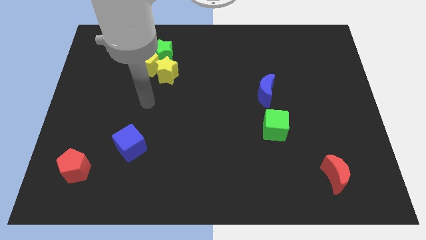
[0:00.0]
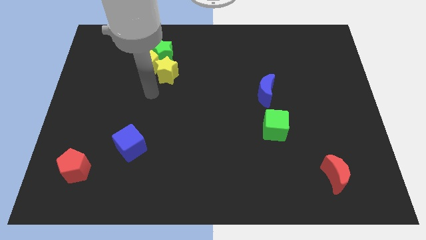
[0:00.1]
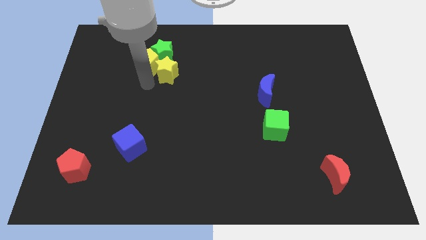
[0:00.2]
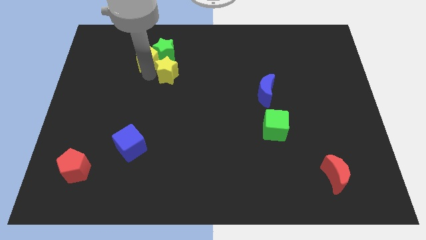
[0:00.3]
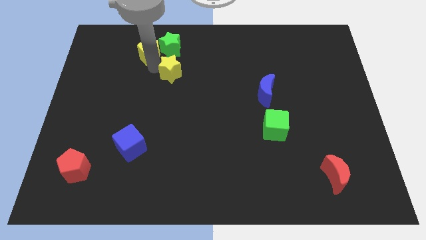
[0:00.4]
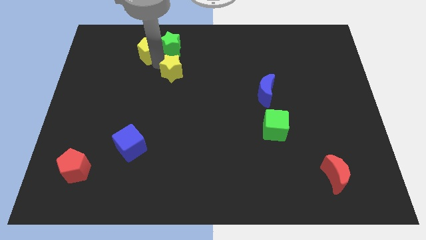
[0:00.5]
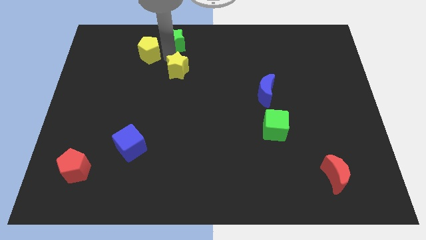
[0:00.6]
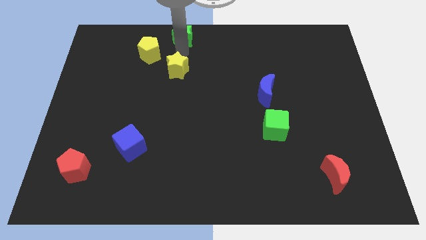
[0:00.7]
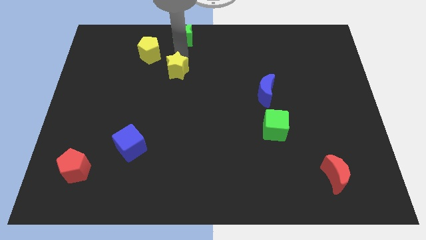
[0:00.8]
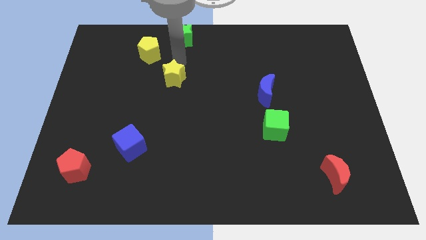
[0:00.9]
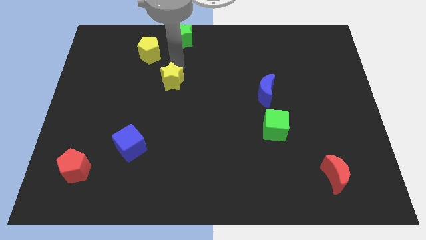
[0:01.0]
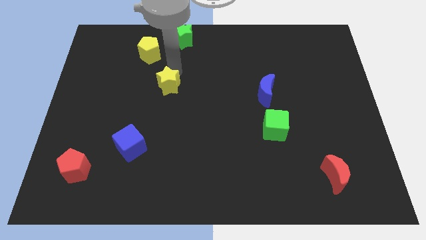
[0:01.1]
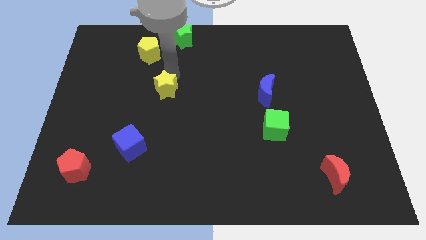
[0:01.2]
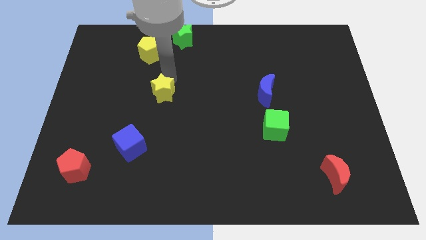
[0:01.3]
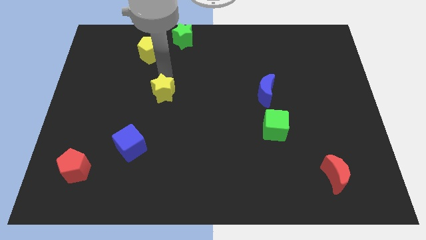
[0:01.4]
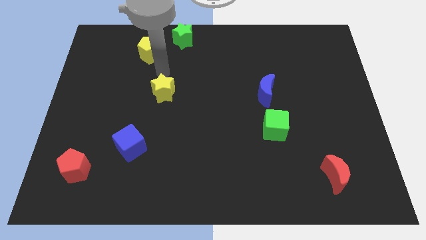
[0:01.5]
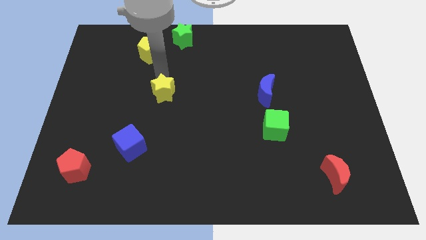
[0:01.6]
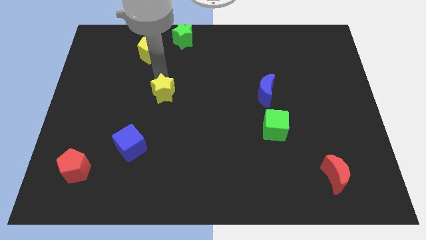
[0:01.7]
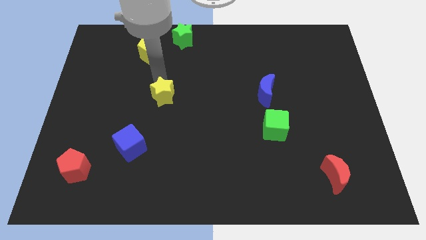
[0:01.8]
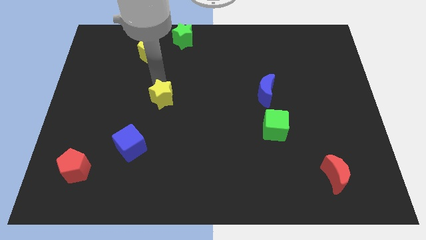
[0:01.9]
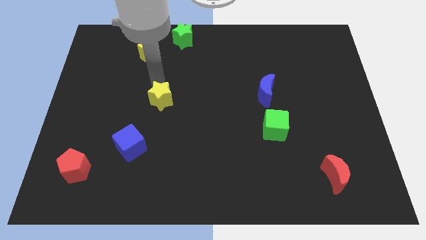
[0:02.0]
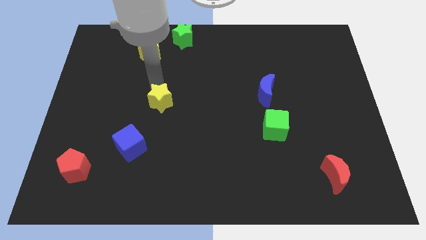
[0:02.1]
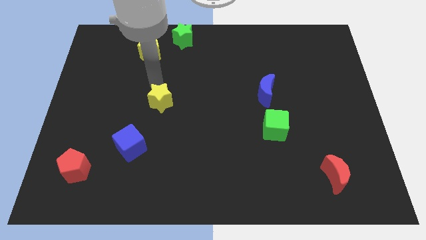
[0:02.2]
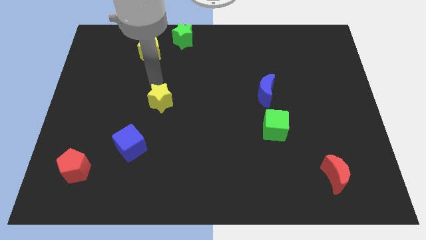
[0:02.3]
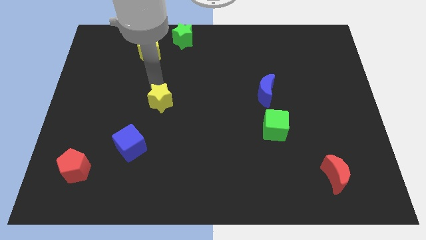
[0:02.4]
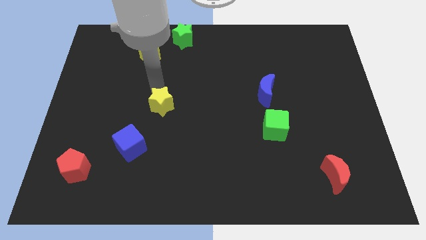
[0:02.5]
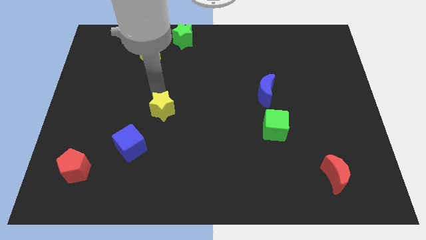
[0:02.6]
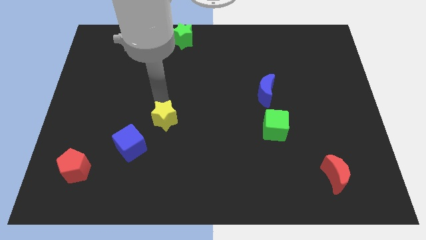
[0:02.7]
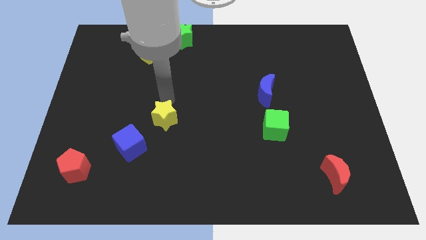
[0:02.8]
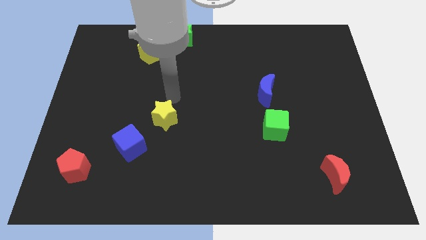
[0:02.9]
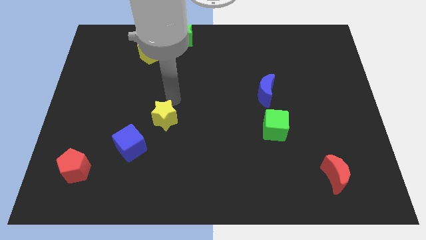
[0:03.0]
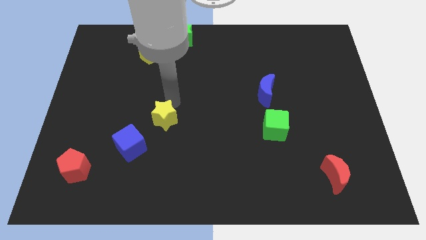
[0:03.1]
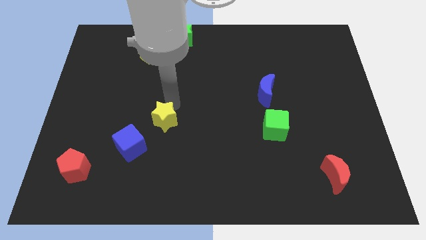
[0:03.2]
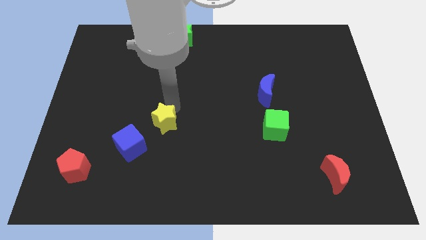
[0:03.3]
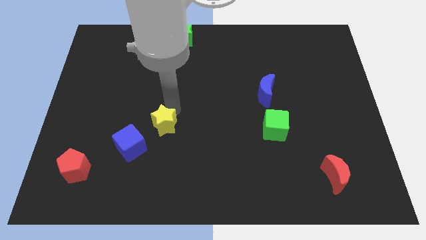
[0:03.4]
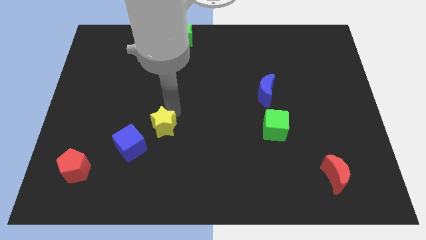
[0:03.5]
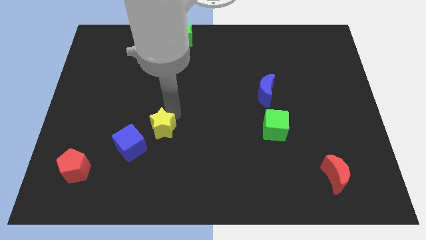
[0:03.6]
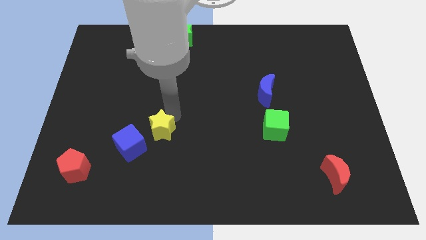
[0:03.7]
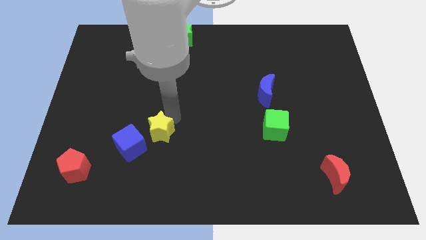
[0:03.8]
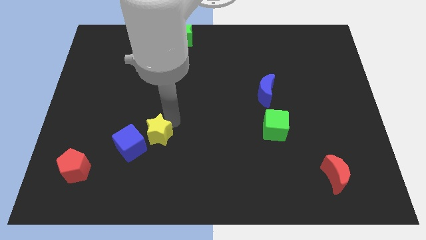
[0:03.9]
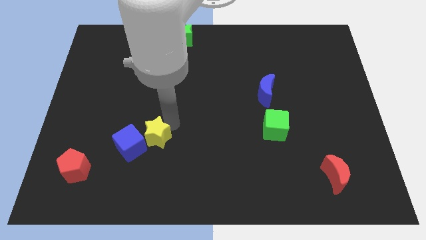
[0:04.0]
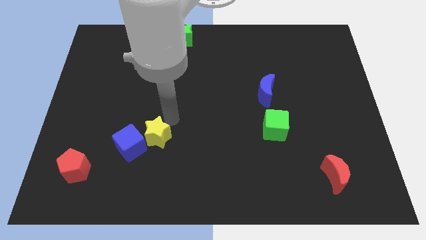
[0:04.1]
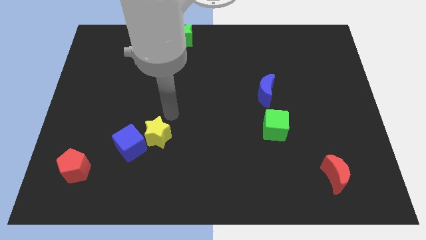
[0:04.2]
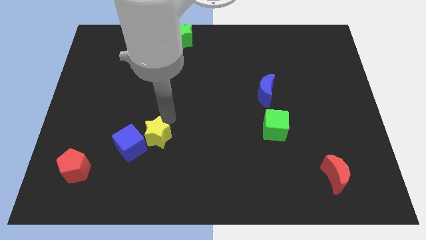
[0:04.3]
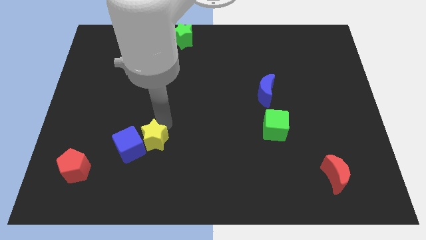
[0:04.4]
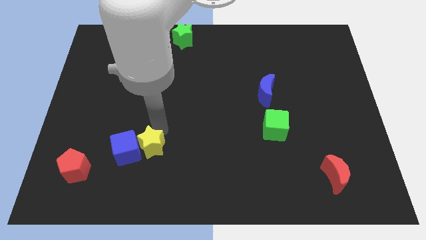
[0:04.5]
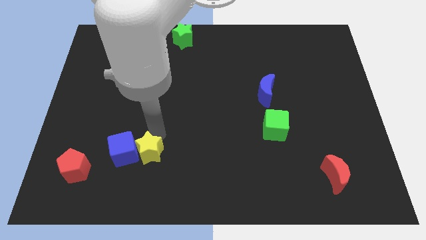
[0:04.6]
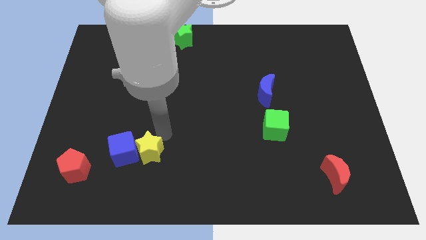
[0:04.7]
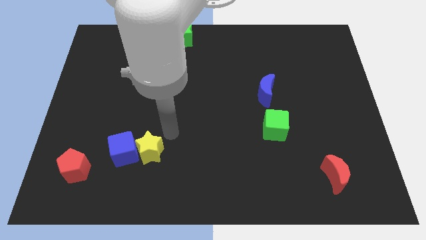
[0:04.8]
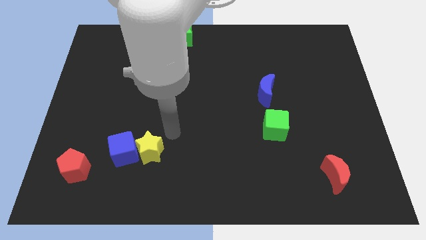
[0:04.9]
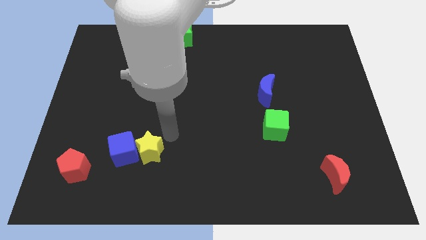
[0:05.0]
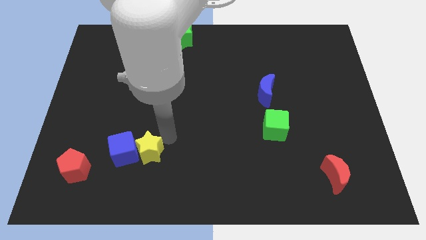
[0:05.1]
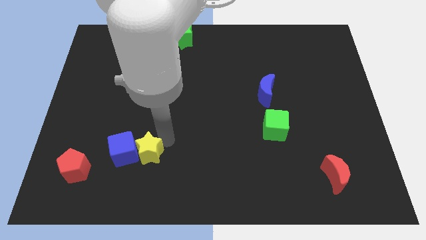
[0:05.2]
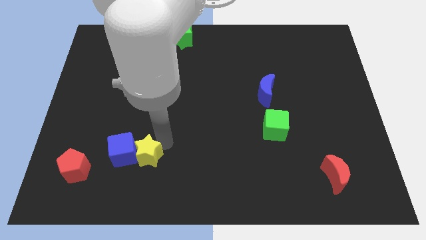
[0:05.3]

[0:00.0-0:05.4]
put the yellow star right of the red pentagon

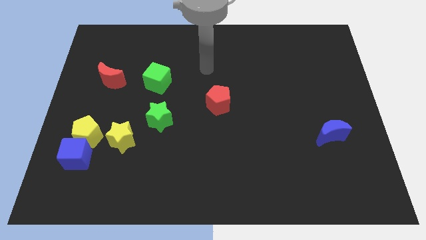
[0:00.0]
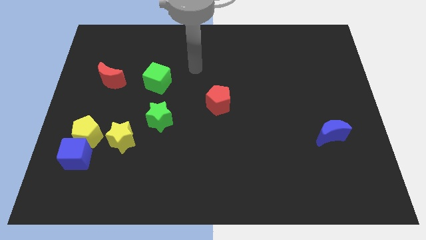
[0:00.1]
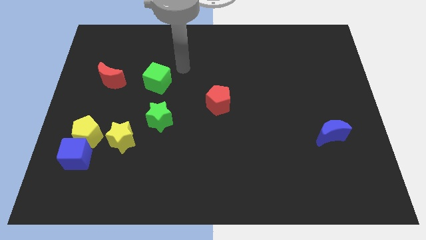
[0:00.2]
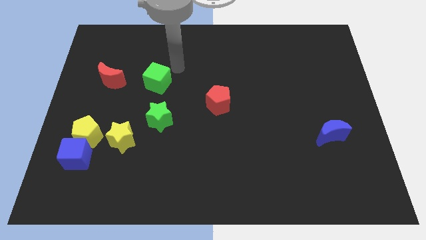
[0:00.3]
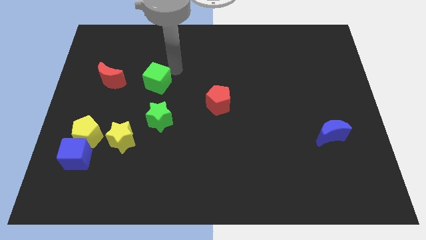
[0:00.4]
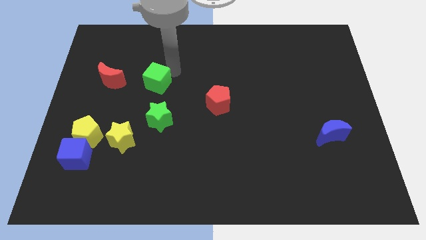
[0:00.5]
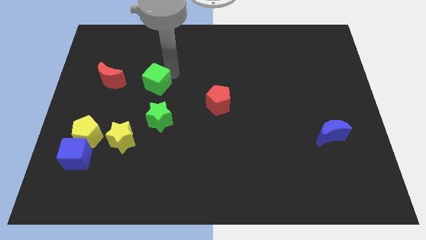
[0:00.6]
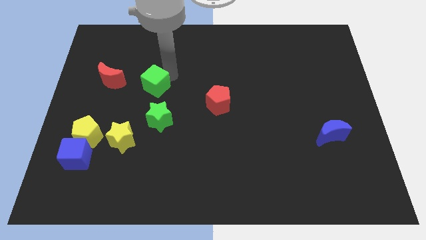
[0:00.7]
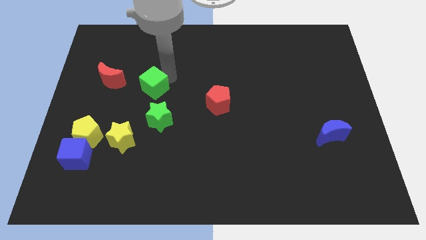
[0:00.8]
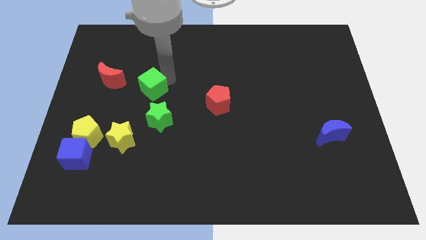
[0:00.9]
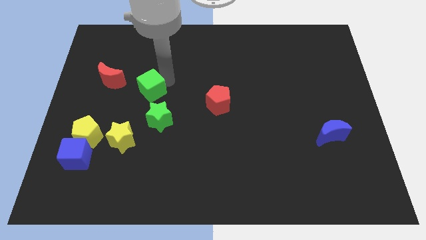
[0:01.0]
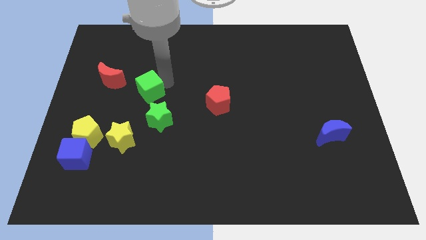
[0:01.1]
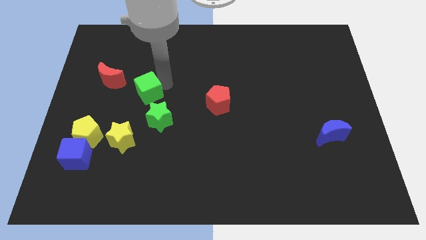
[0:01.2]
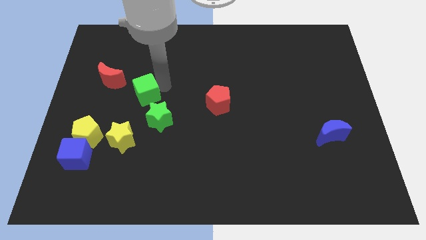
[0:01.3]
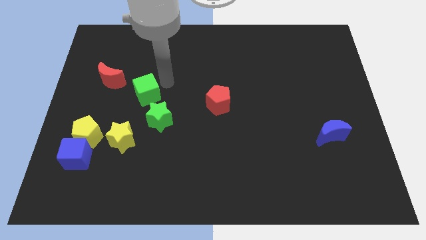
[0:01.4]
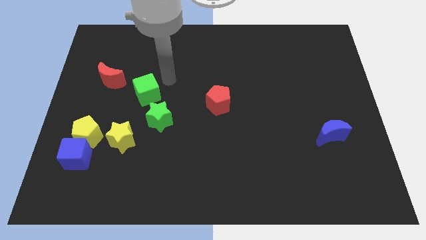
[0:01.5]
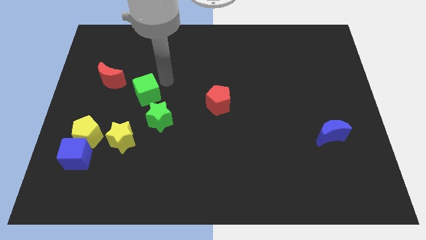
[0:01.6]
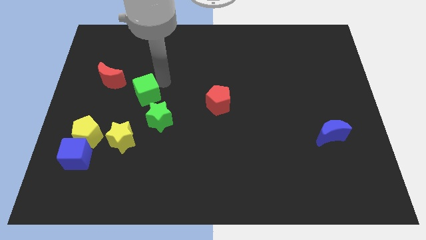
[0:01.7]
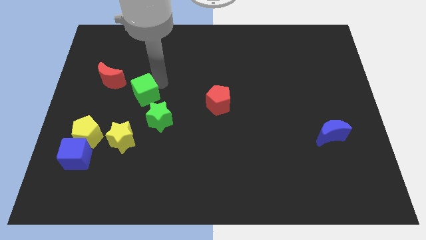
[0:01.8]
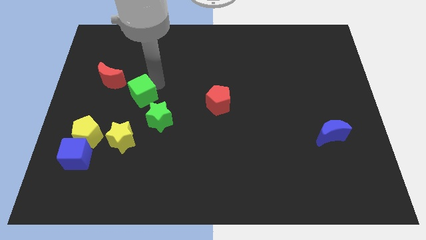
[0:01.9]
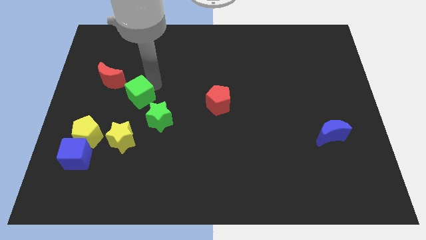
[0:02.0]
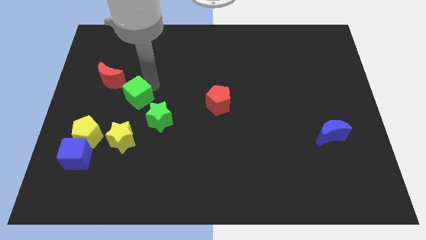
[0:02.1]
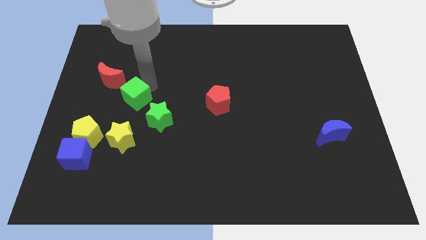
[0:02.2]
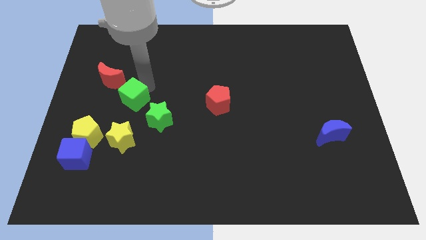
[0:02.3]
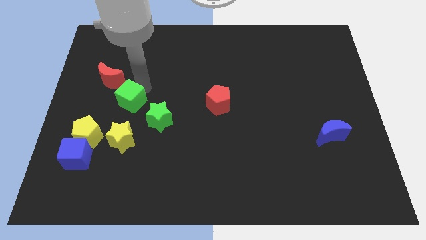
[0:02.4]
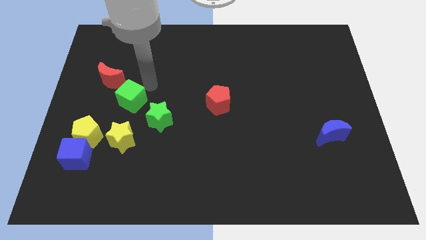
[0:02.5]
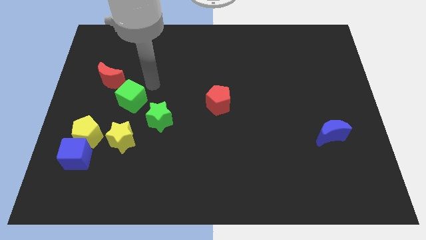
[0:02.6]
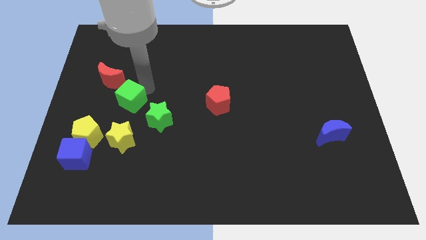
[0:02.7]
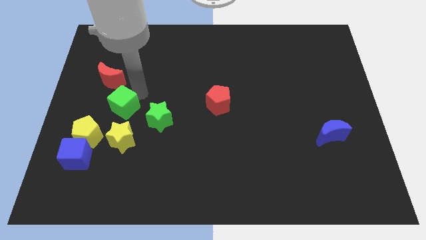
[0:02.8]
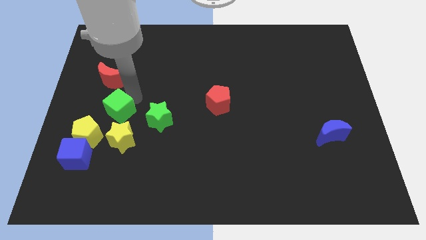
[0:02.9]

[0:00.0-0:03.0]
slide the green cube to the top left of the yellow star
